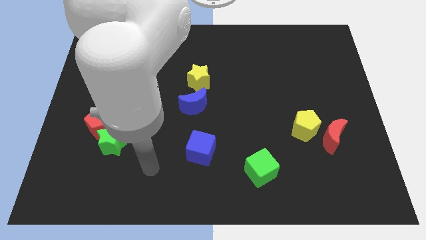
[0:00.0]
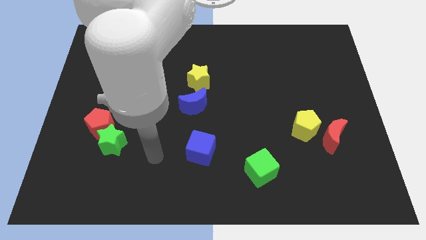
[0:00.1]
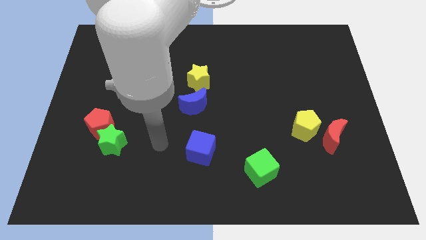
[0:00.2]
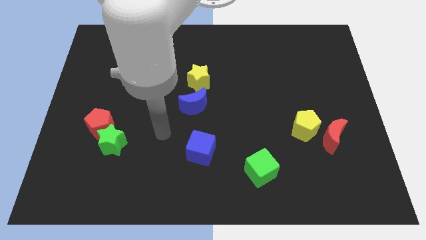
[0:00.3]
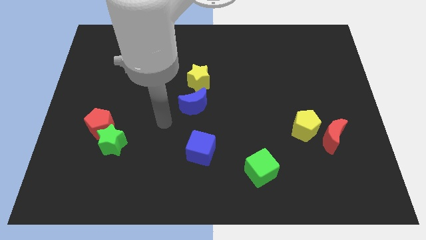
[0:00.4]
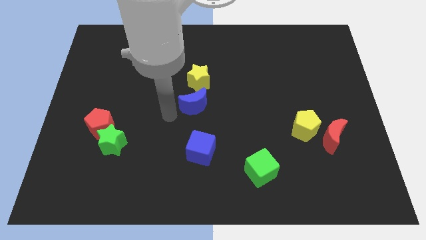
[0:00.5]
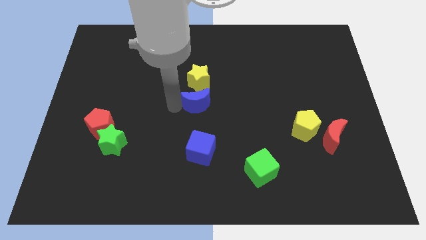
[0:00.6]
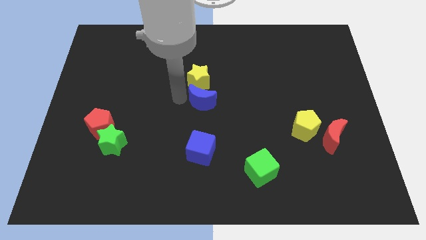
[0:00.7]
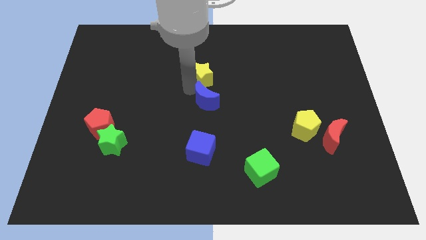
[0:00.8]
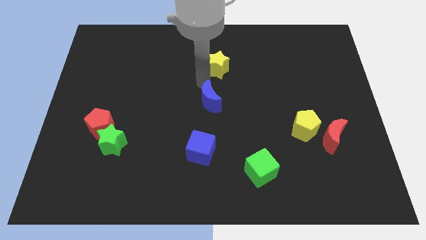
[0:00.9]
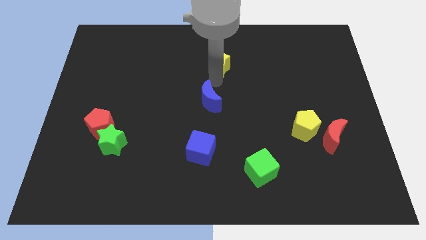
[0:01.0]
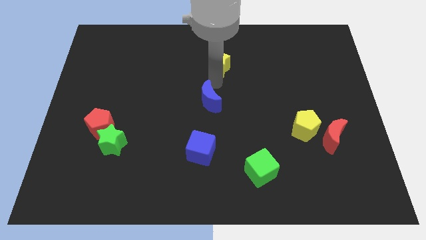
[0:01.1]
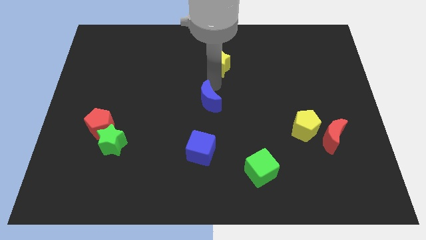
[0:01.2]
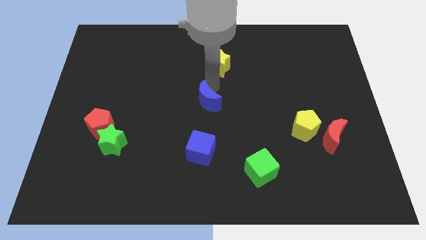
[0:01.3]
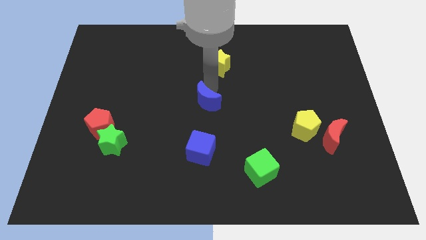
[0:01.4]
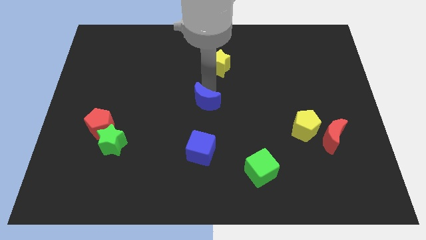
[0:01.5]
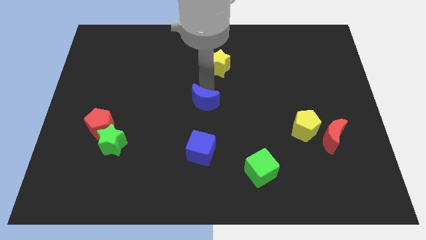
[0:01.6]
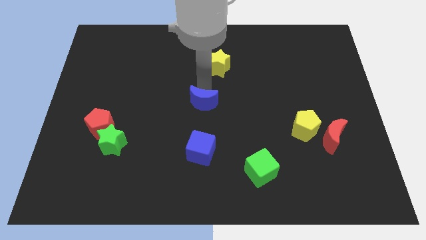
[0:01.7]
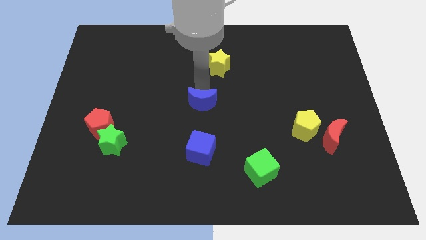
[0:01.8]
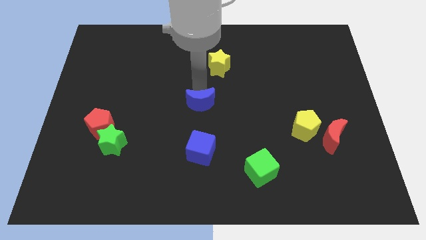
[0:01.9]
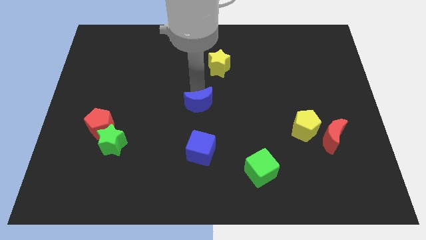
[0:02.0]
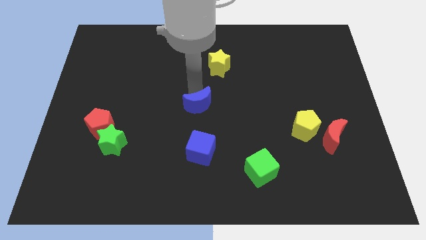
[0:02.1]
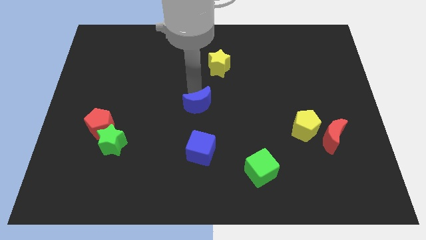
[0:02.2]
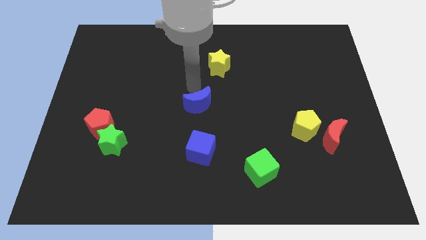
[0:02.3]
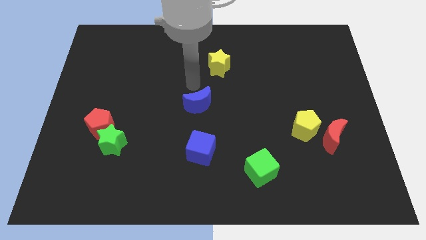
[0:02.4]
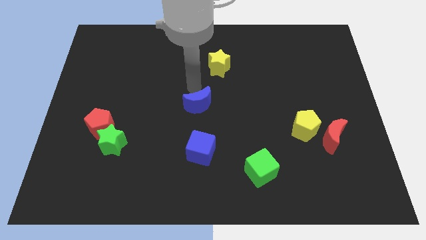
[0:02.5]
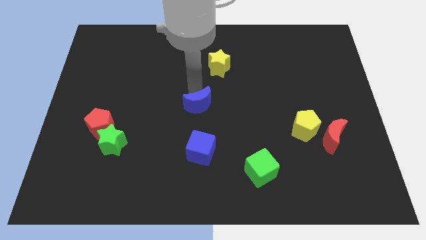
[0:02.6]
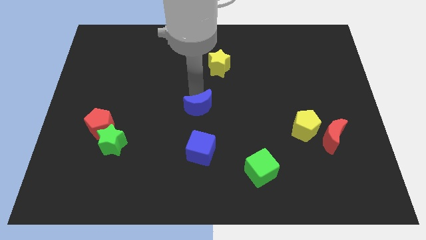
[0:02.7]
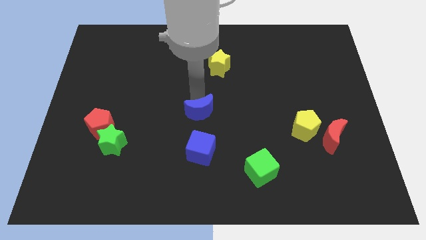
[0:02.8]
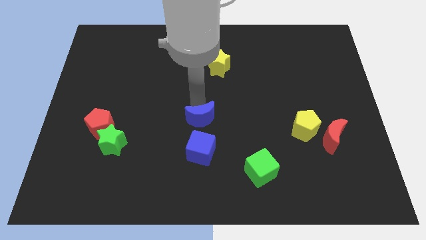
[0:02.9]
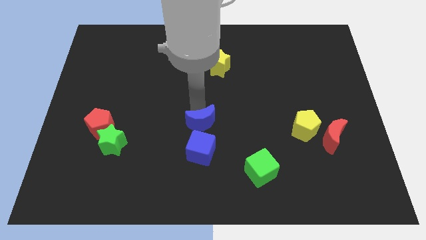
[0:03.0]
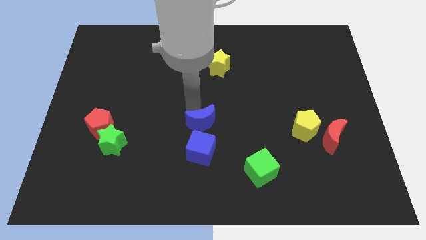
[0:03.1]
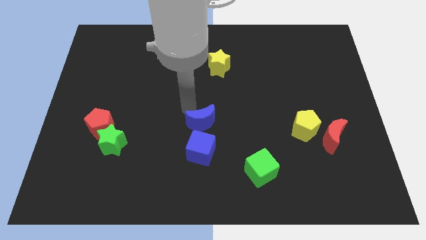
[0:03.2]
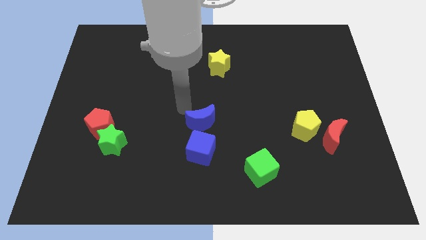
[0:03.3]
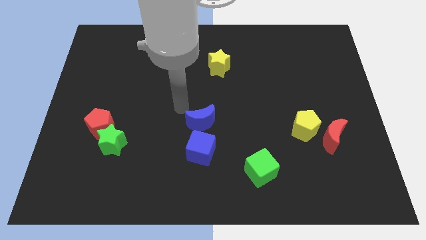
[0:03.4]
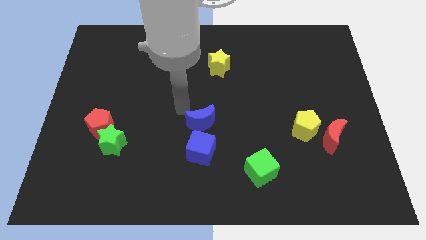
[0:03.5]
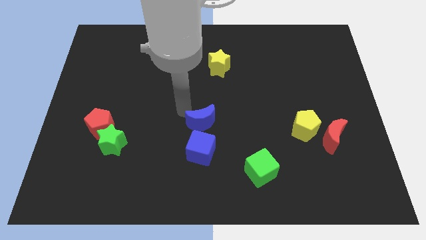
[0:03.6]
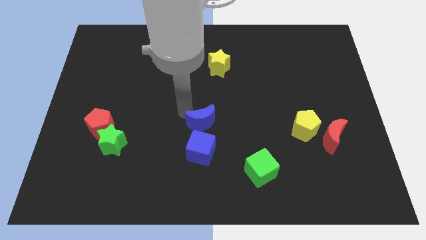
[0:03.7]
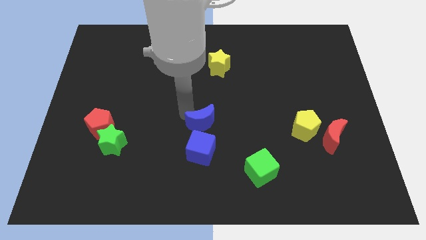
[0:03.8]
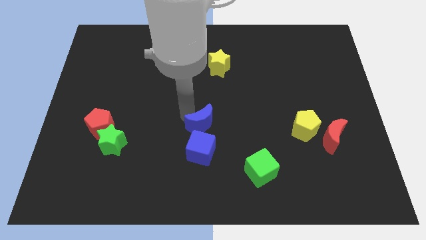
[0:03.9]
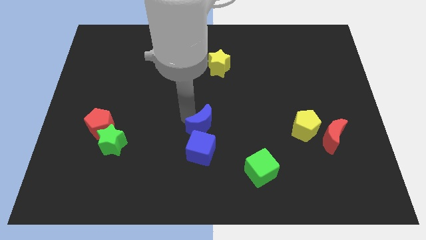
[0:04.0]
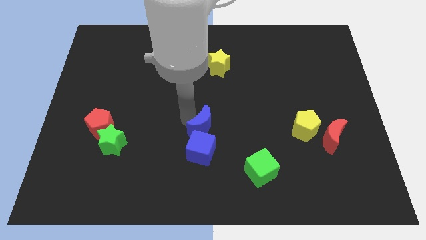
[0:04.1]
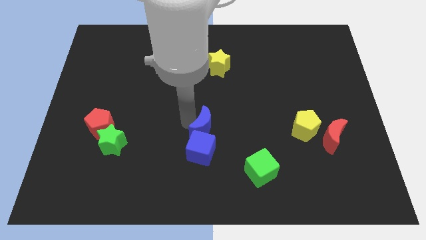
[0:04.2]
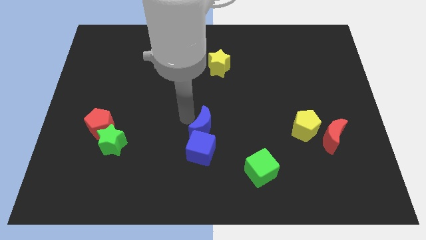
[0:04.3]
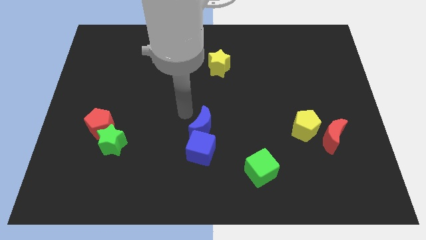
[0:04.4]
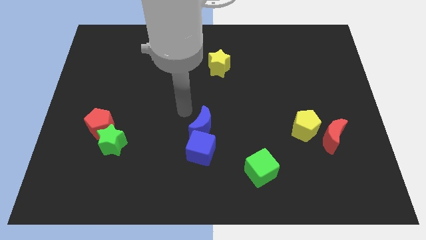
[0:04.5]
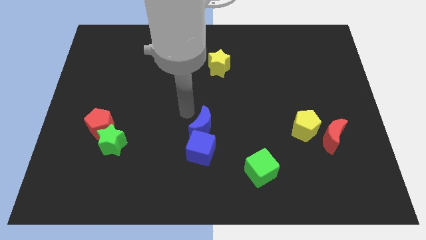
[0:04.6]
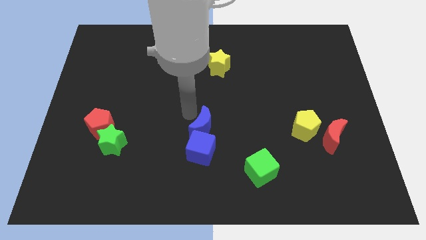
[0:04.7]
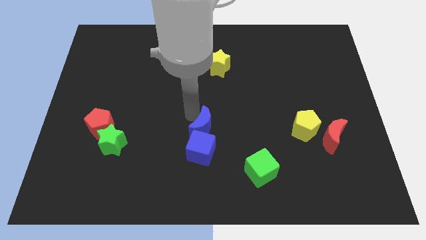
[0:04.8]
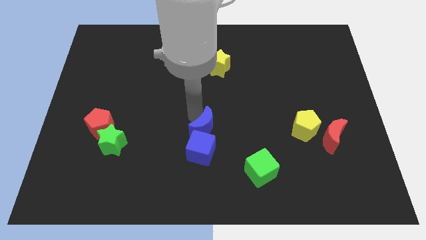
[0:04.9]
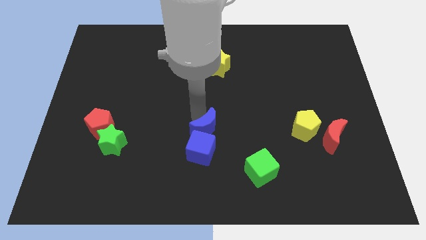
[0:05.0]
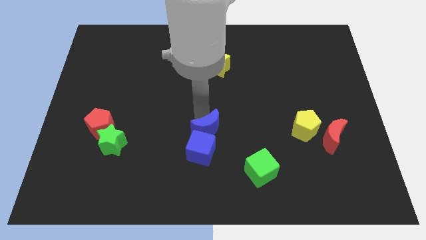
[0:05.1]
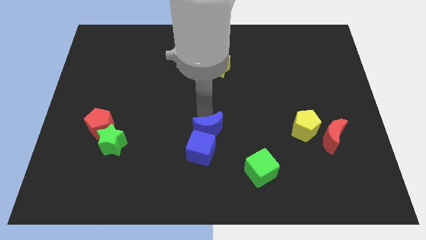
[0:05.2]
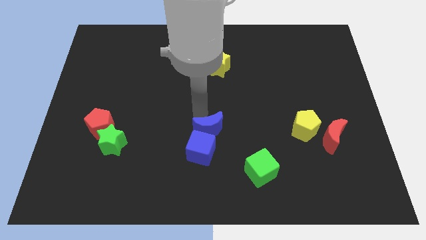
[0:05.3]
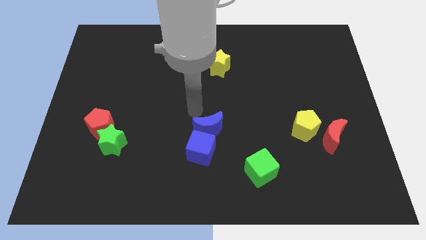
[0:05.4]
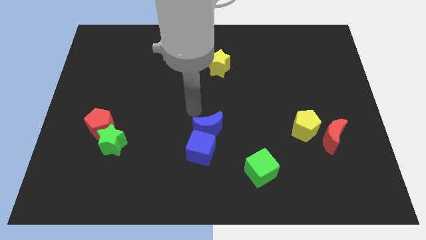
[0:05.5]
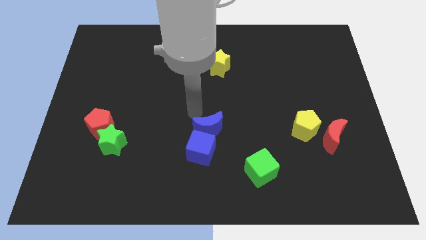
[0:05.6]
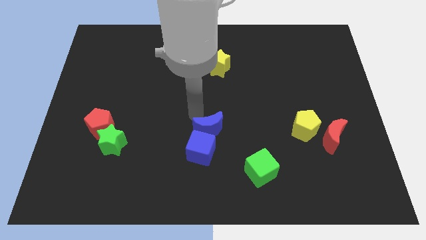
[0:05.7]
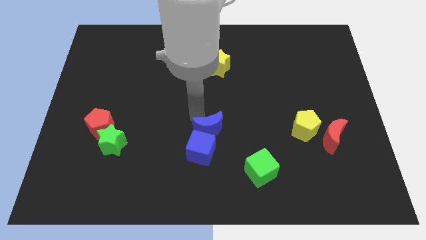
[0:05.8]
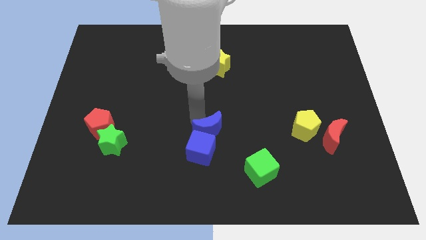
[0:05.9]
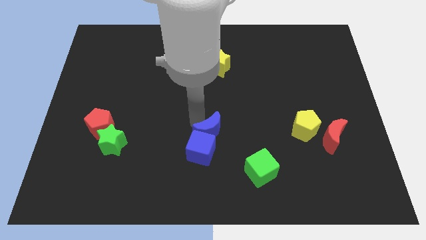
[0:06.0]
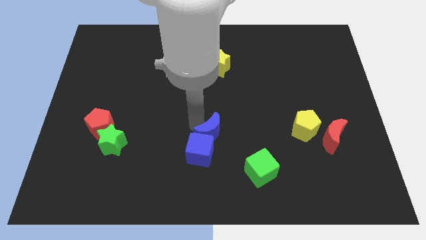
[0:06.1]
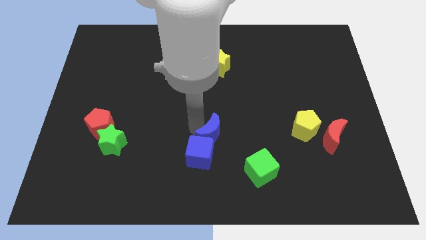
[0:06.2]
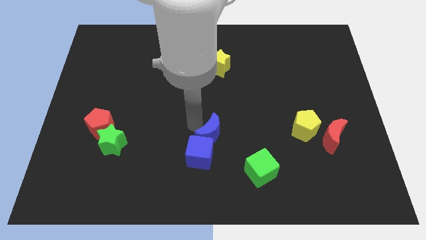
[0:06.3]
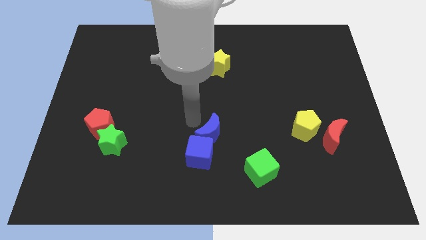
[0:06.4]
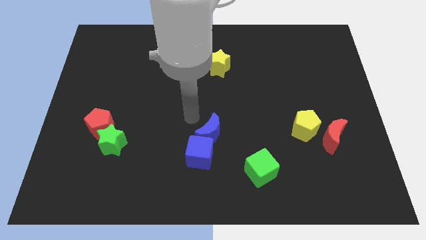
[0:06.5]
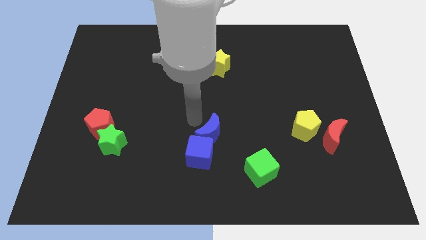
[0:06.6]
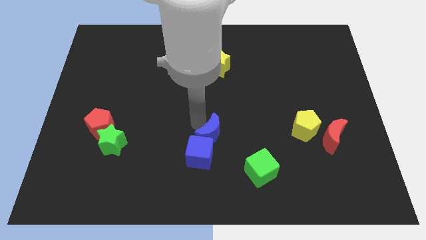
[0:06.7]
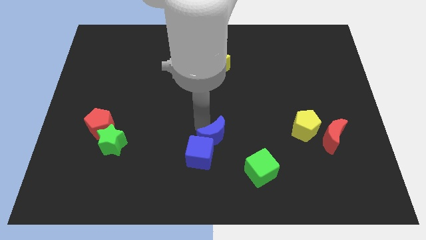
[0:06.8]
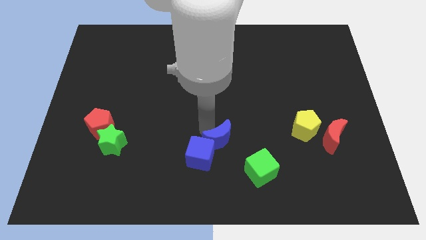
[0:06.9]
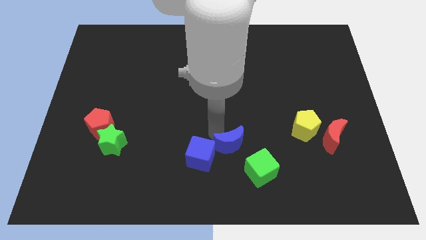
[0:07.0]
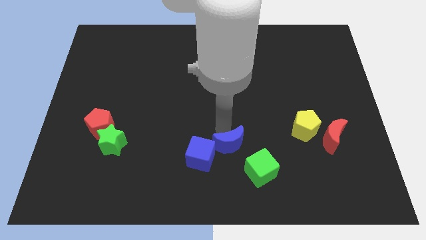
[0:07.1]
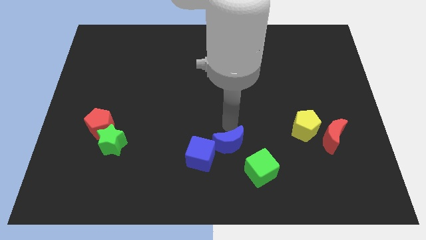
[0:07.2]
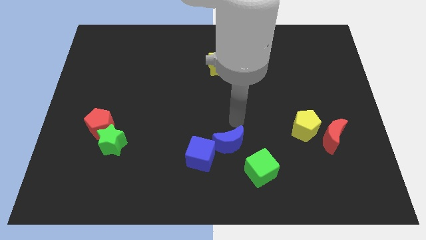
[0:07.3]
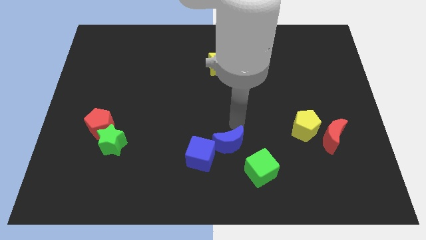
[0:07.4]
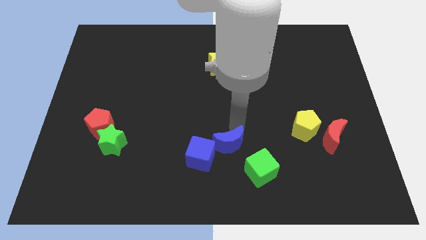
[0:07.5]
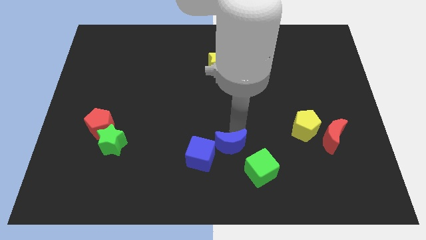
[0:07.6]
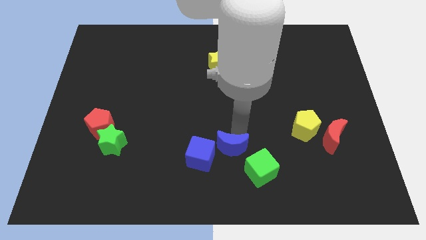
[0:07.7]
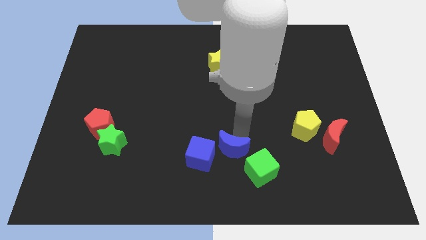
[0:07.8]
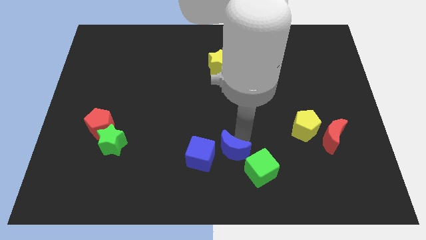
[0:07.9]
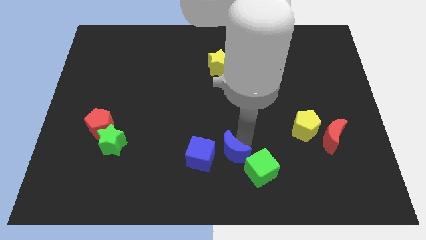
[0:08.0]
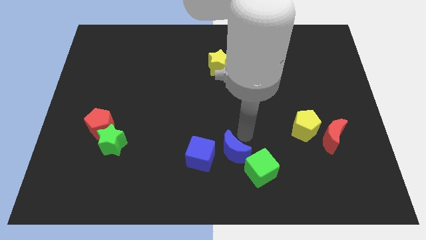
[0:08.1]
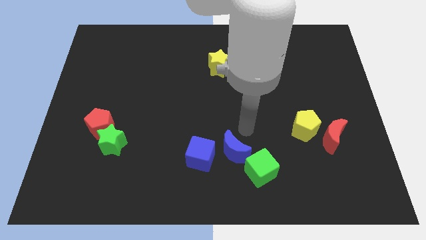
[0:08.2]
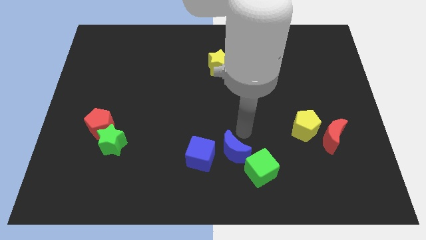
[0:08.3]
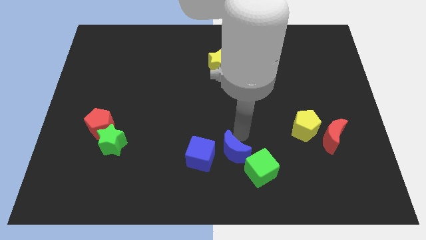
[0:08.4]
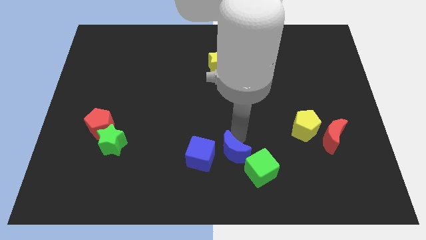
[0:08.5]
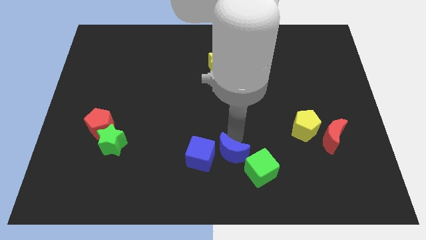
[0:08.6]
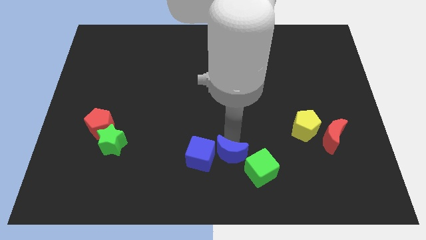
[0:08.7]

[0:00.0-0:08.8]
push the blue moon to the bottom
